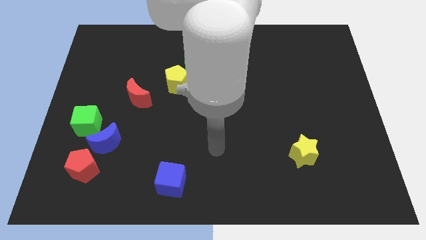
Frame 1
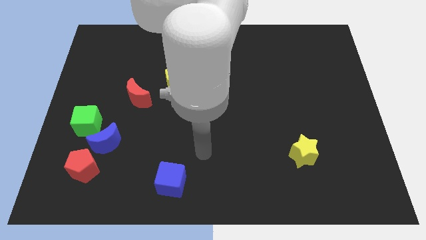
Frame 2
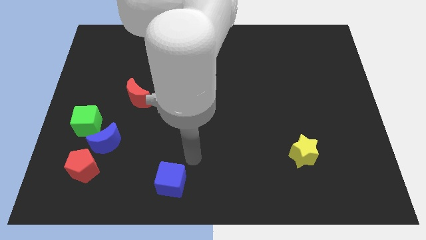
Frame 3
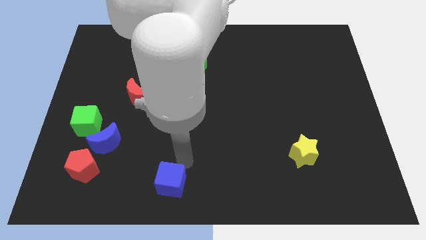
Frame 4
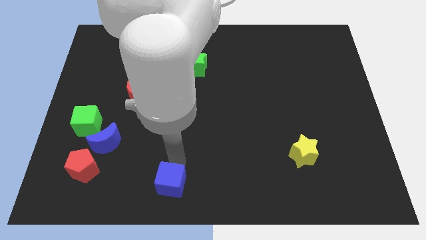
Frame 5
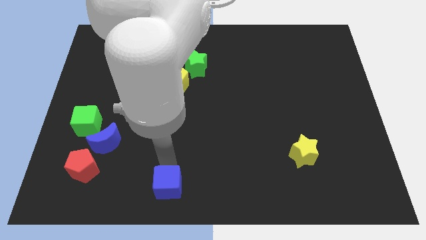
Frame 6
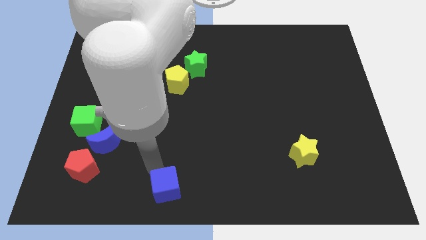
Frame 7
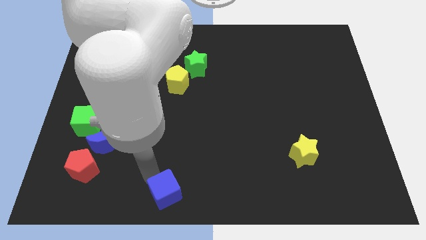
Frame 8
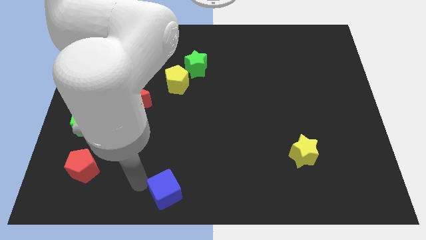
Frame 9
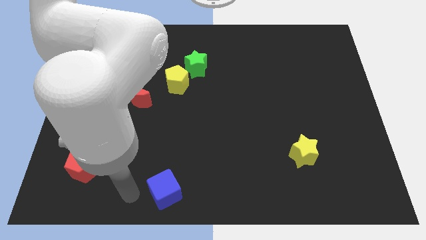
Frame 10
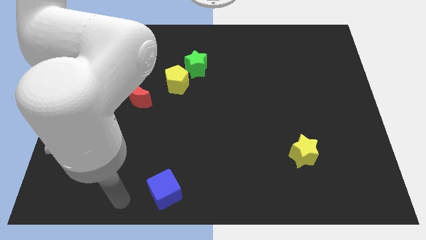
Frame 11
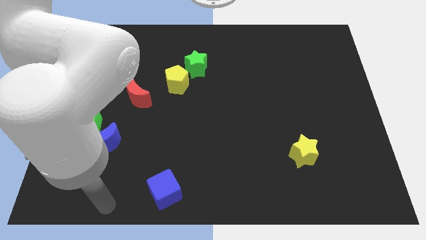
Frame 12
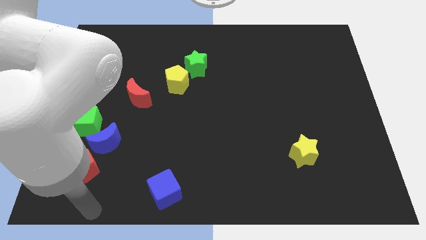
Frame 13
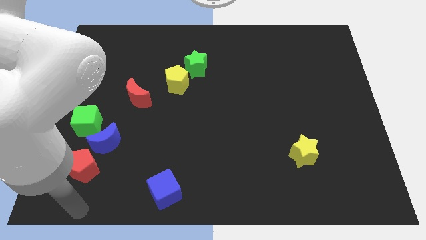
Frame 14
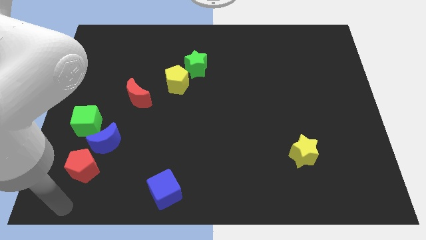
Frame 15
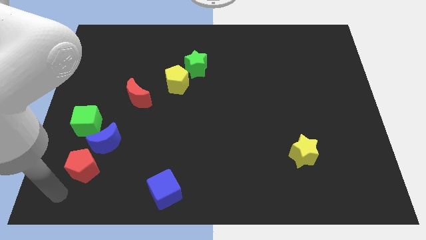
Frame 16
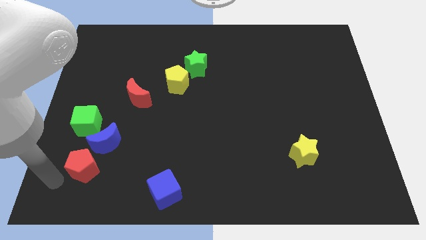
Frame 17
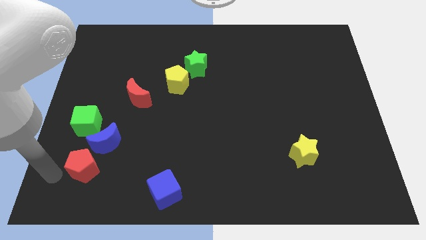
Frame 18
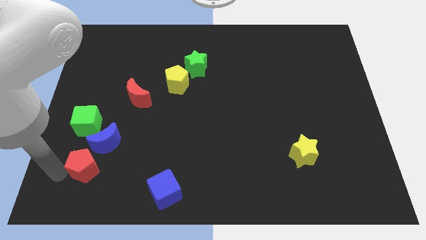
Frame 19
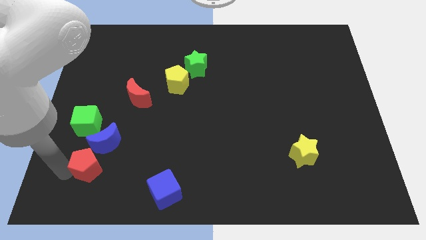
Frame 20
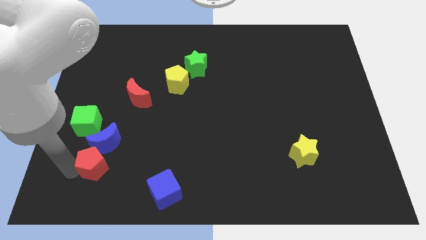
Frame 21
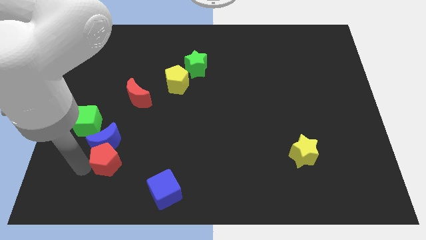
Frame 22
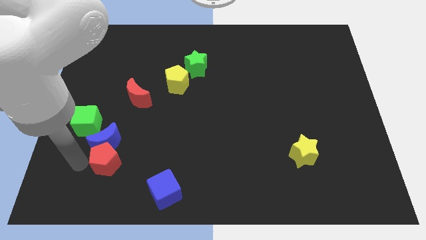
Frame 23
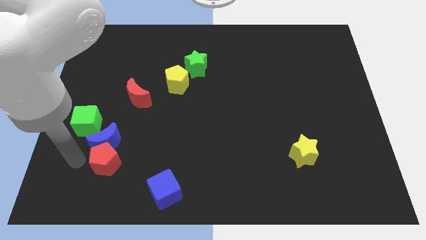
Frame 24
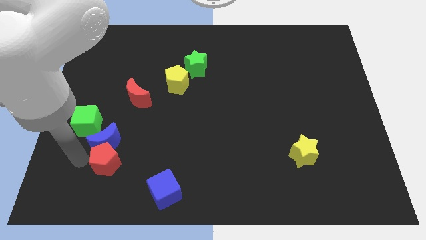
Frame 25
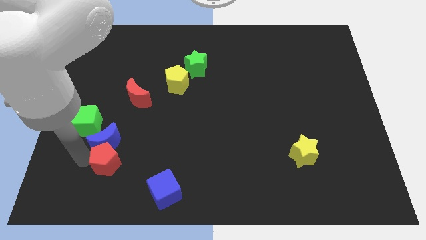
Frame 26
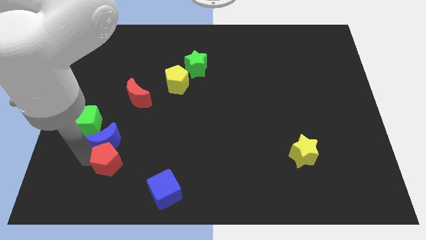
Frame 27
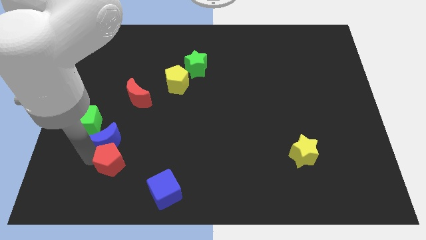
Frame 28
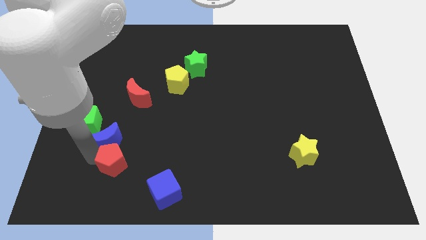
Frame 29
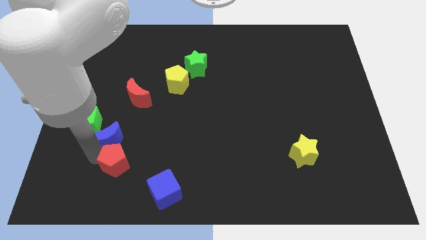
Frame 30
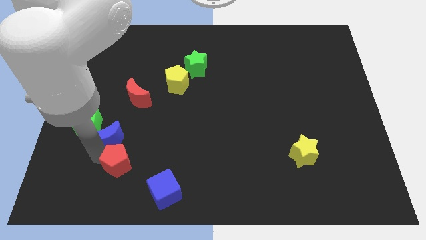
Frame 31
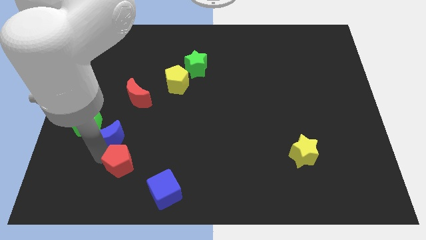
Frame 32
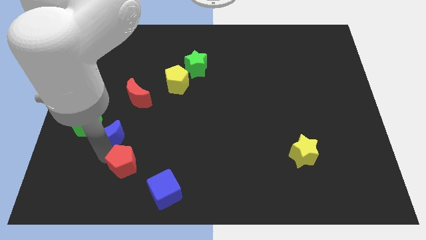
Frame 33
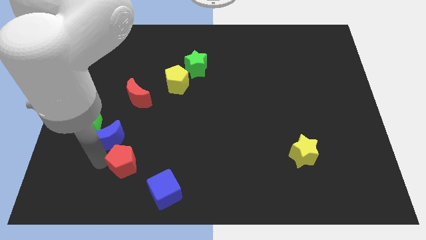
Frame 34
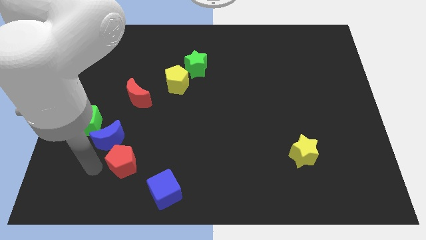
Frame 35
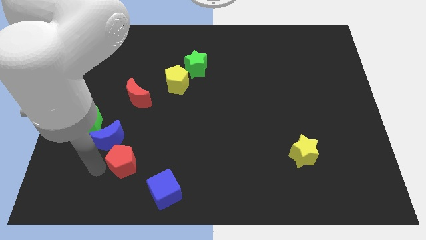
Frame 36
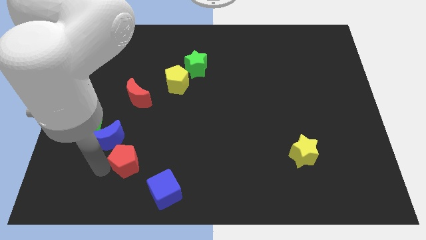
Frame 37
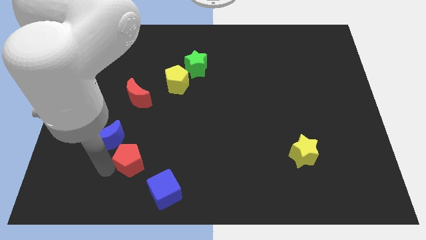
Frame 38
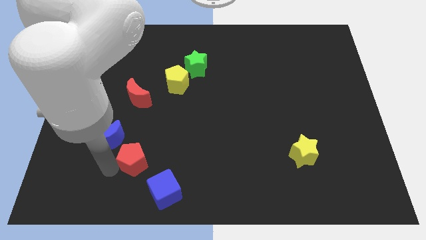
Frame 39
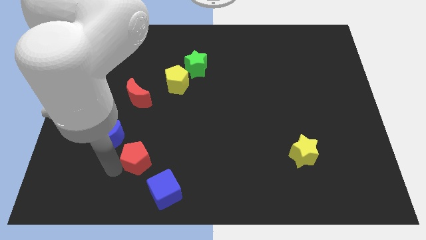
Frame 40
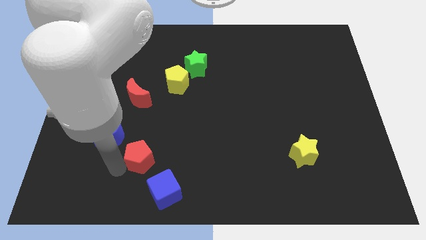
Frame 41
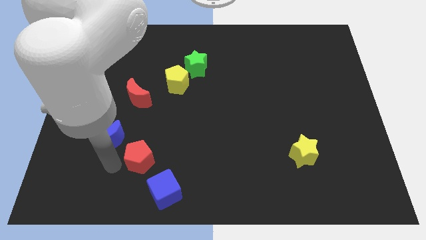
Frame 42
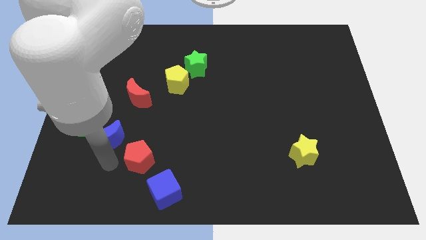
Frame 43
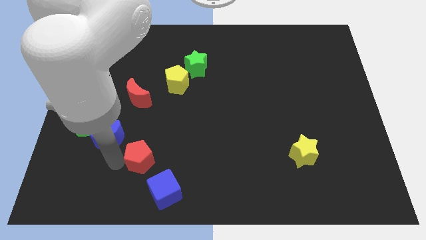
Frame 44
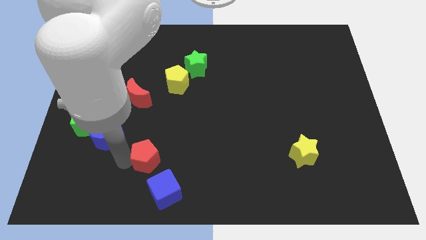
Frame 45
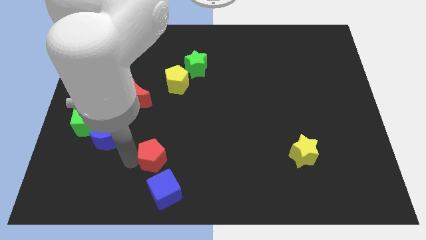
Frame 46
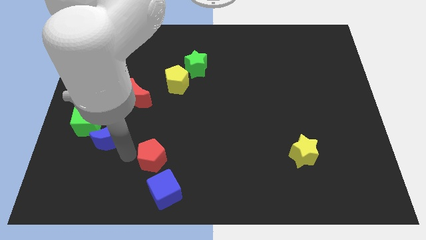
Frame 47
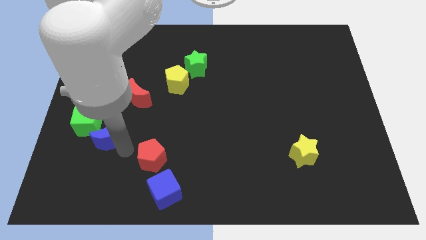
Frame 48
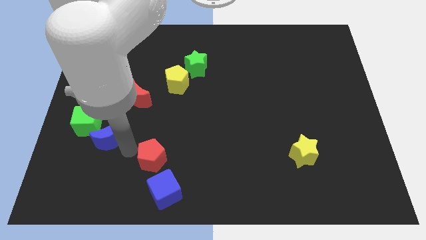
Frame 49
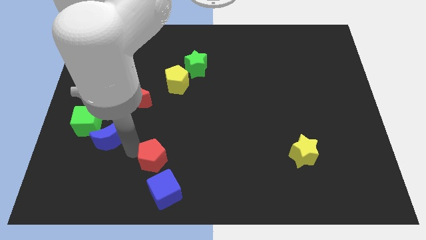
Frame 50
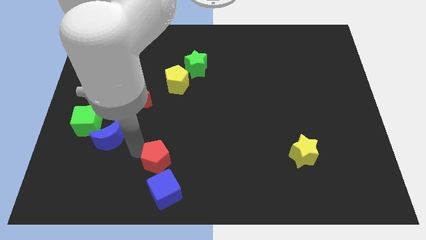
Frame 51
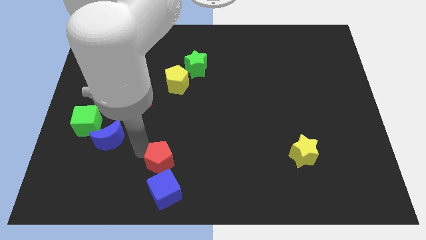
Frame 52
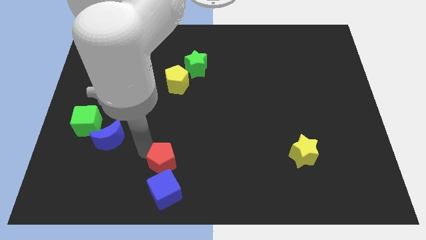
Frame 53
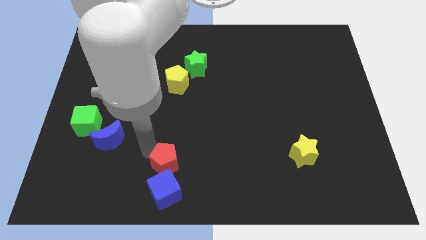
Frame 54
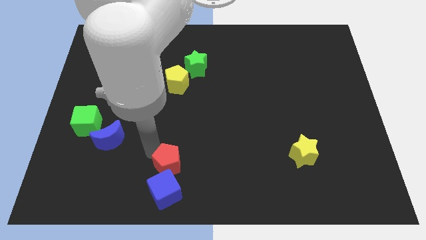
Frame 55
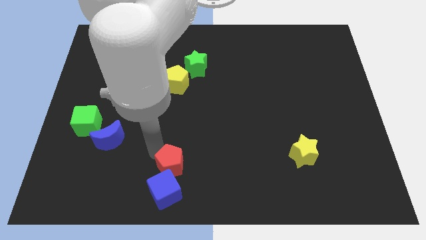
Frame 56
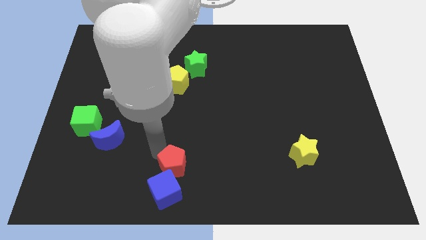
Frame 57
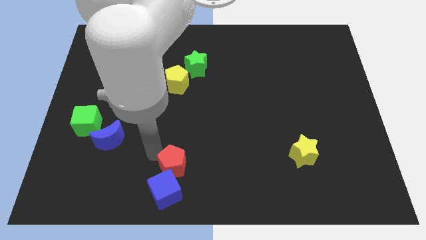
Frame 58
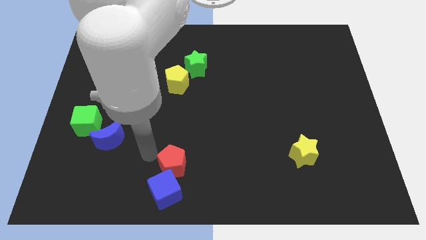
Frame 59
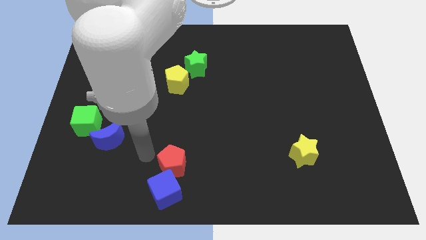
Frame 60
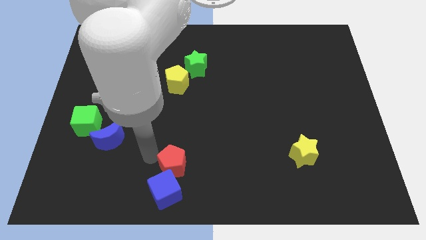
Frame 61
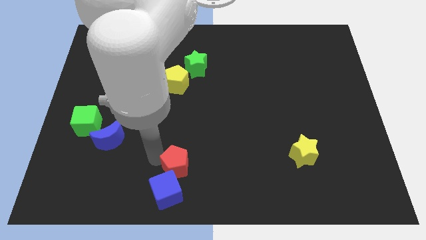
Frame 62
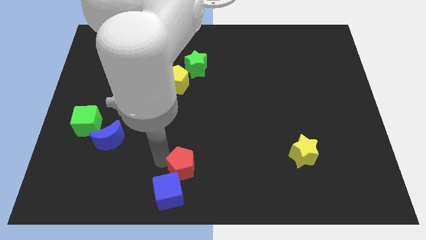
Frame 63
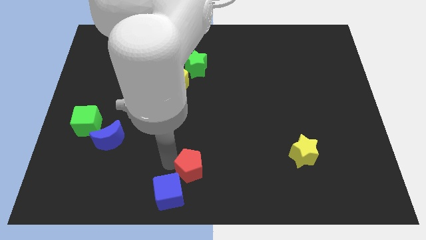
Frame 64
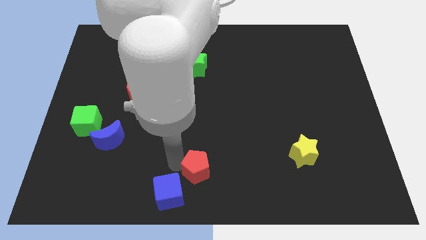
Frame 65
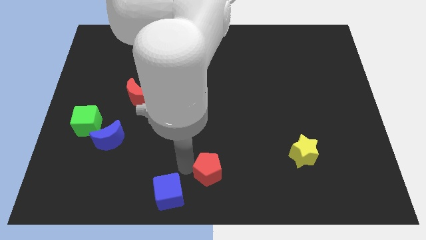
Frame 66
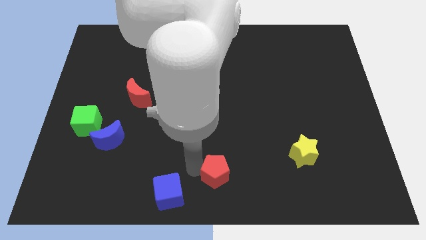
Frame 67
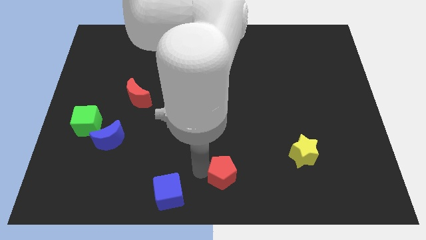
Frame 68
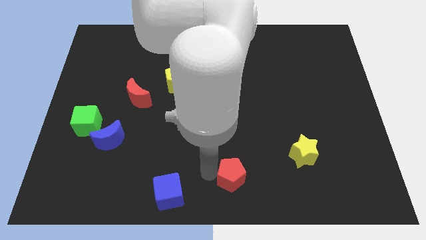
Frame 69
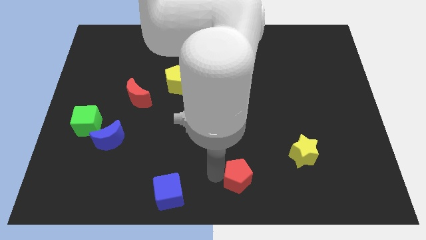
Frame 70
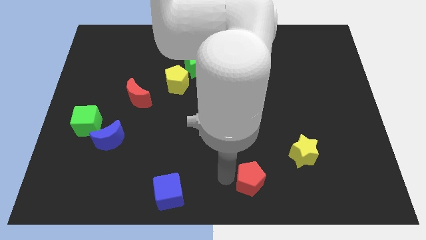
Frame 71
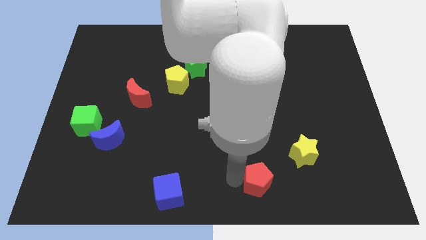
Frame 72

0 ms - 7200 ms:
move the red pentagon to the bottom left of the yellow star

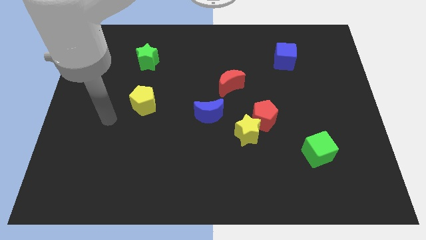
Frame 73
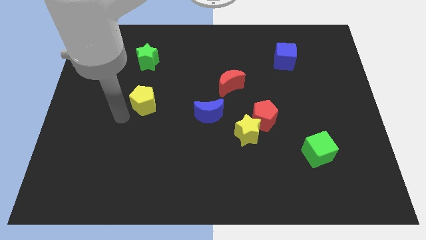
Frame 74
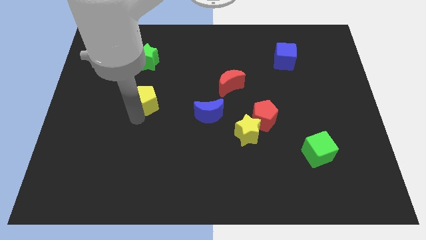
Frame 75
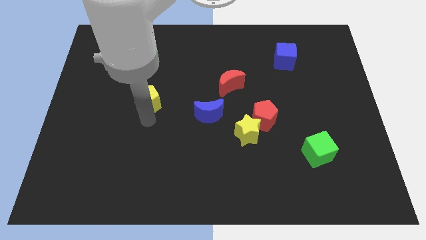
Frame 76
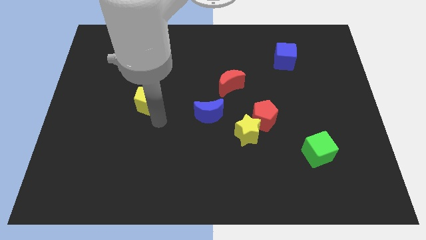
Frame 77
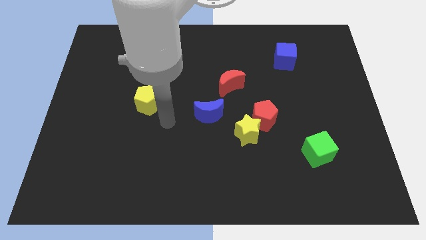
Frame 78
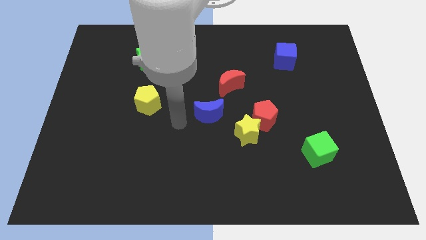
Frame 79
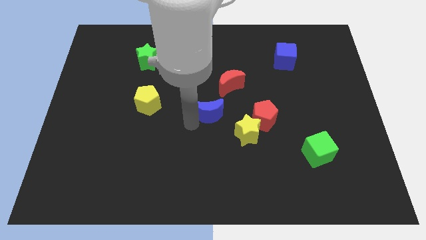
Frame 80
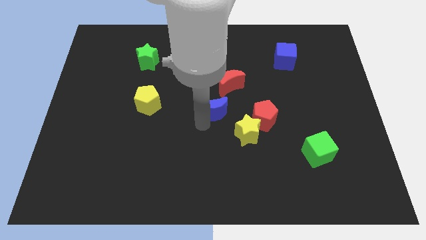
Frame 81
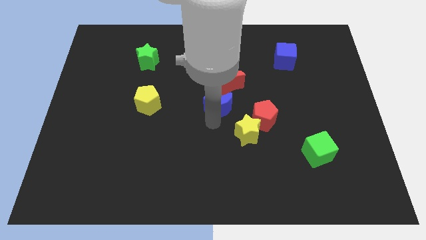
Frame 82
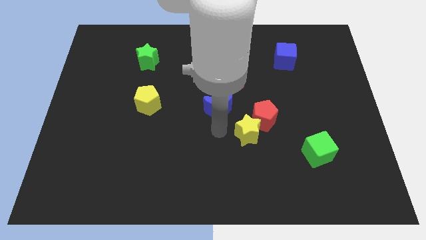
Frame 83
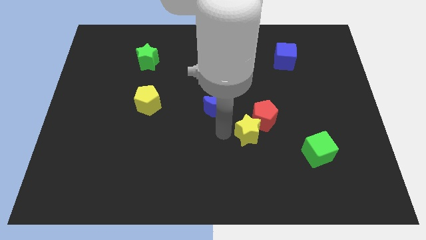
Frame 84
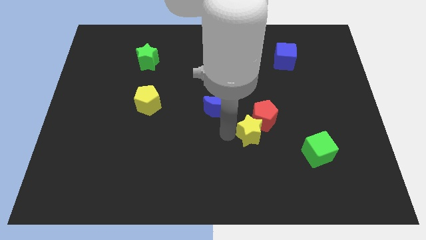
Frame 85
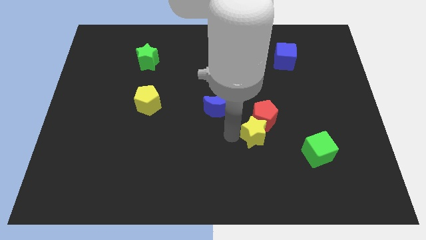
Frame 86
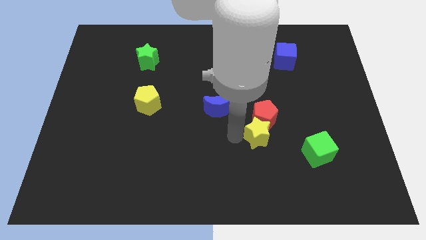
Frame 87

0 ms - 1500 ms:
put the yellow star to the bottom right side of the red pentagon
